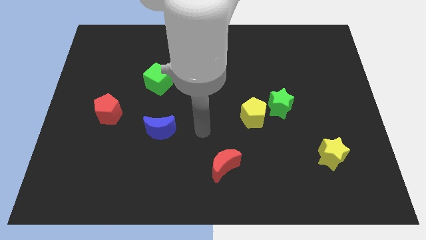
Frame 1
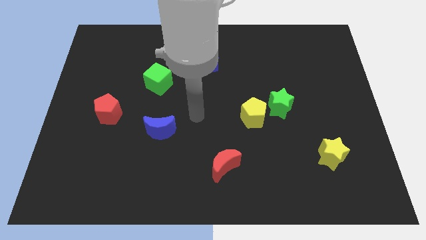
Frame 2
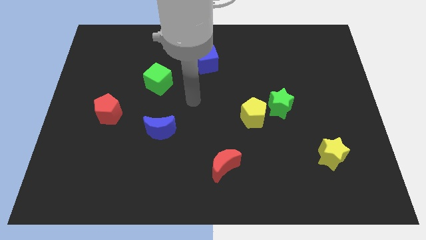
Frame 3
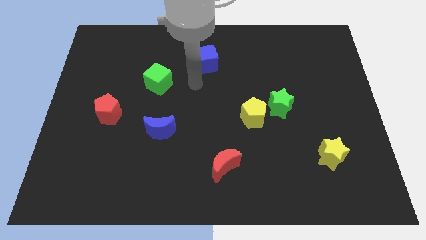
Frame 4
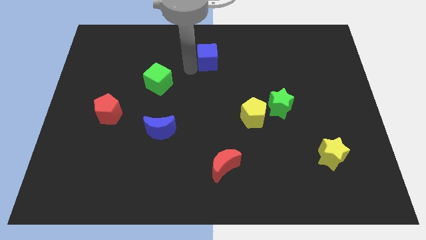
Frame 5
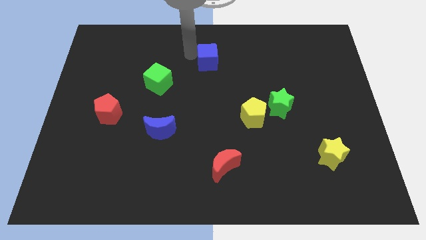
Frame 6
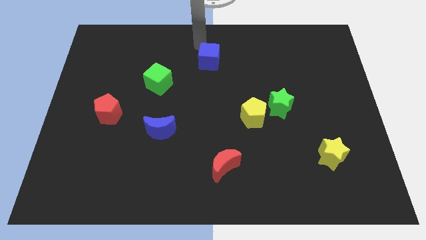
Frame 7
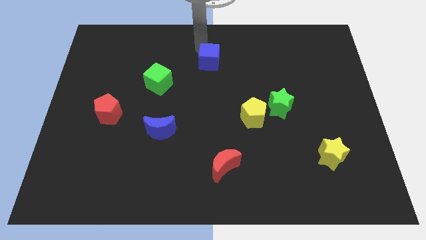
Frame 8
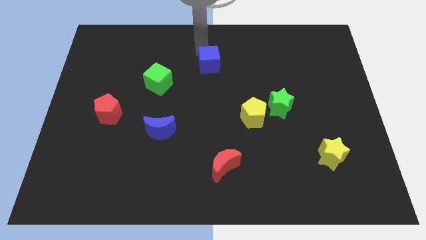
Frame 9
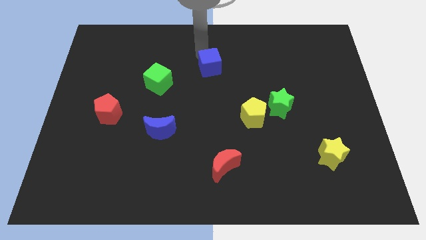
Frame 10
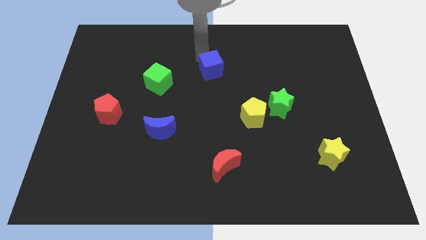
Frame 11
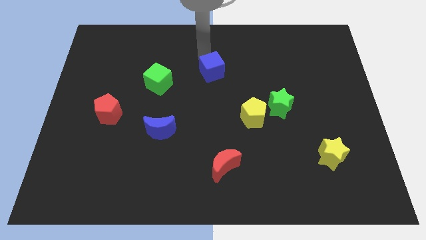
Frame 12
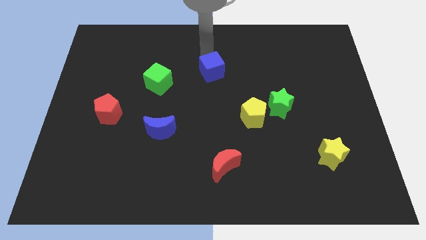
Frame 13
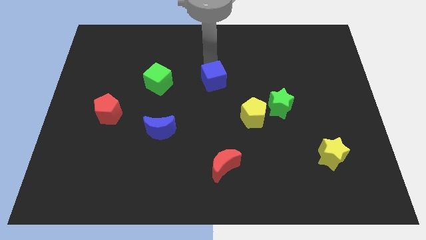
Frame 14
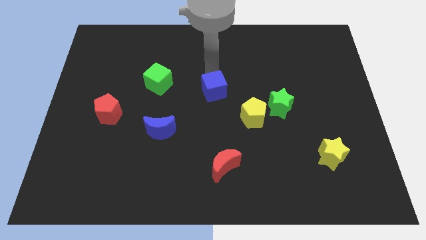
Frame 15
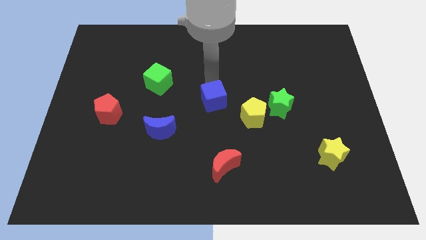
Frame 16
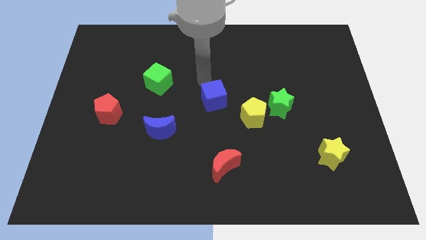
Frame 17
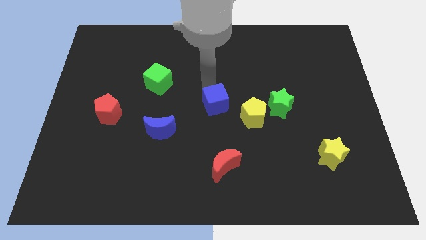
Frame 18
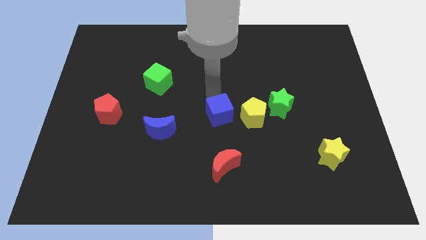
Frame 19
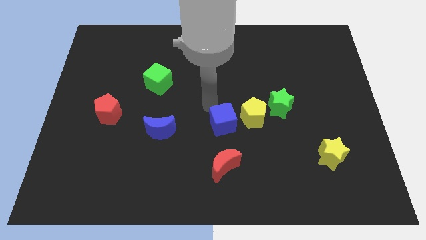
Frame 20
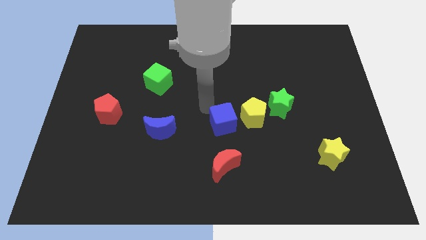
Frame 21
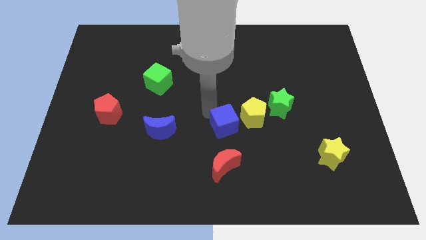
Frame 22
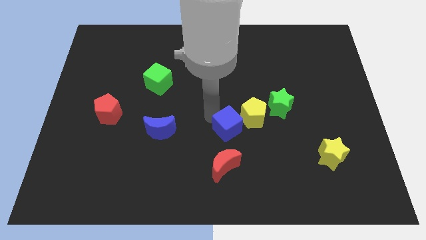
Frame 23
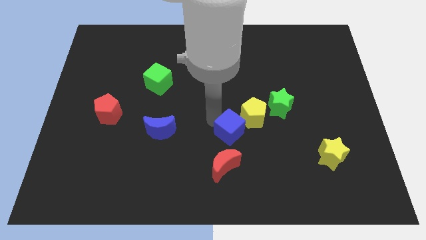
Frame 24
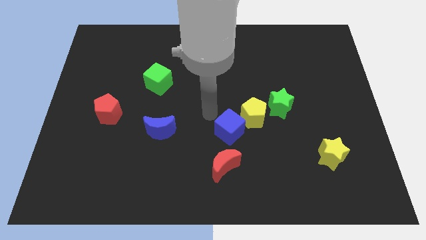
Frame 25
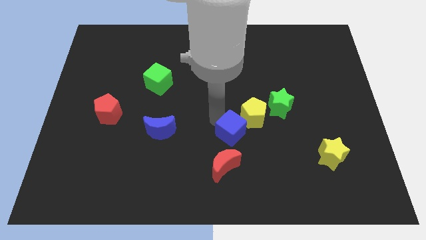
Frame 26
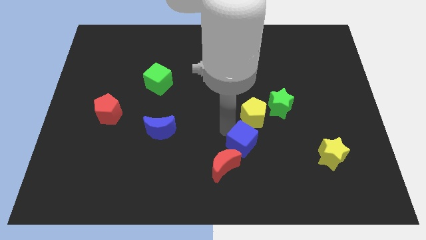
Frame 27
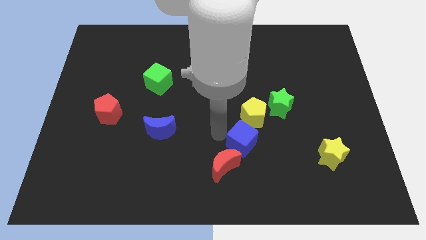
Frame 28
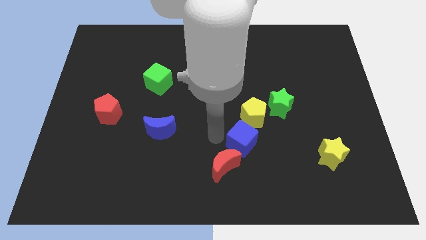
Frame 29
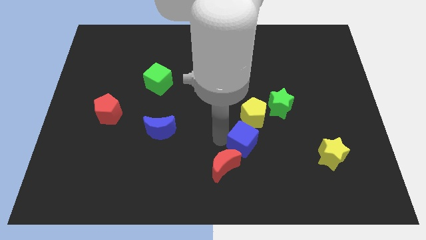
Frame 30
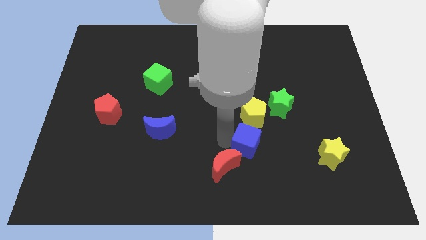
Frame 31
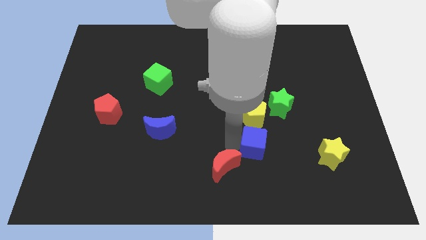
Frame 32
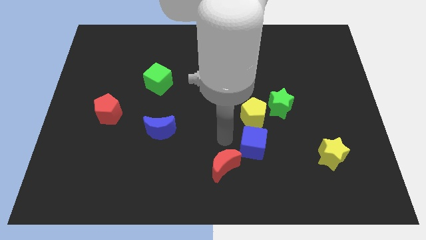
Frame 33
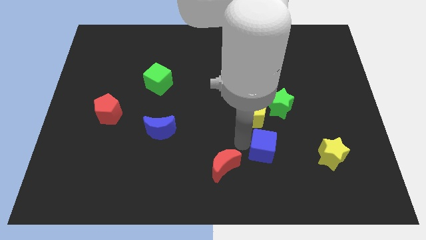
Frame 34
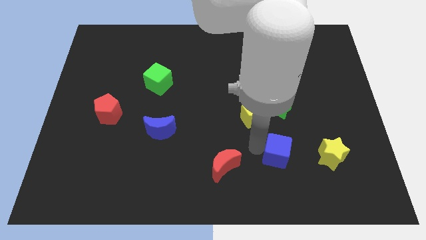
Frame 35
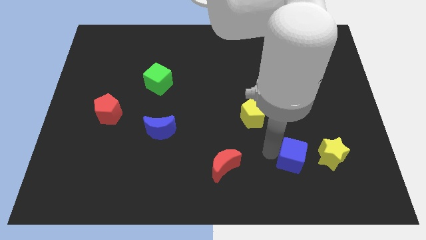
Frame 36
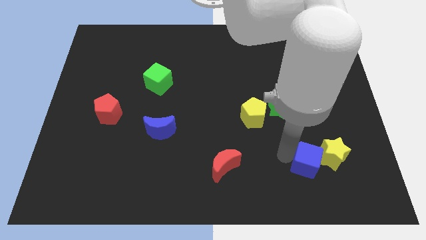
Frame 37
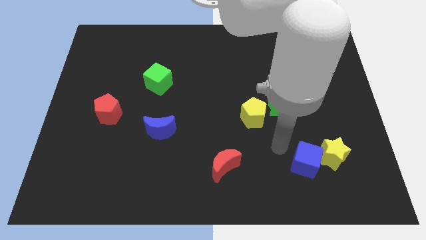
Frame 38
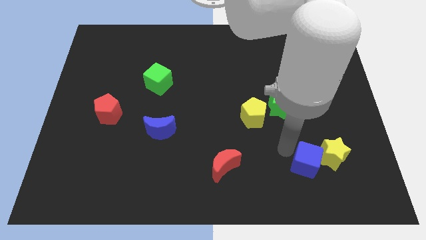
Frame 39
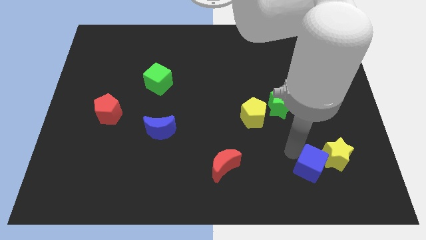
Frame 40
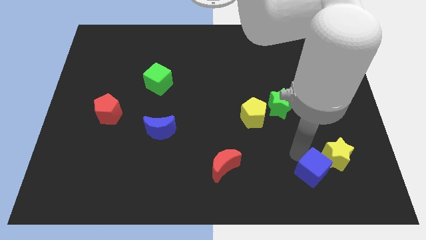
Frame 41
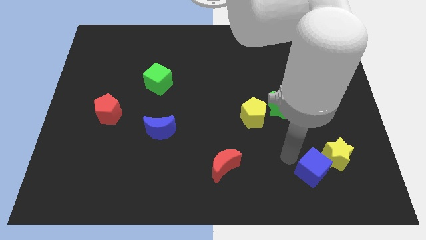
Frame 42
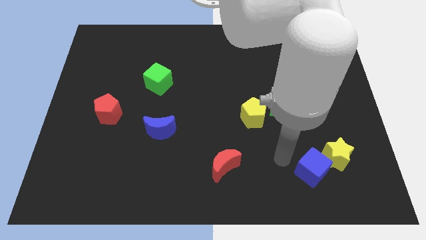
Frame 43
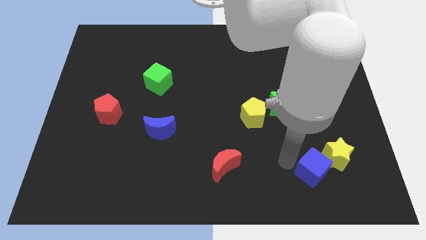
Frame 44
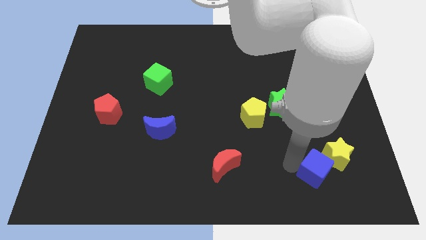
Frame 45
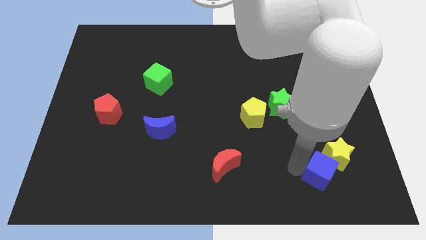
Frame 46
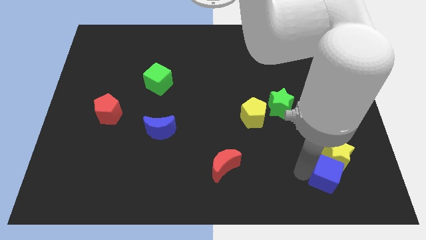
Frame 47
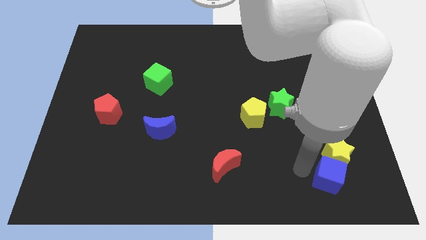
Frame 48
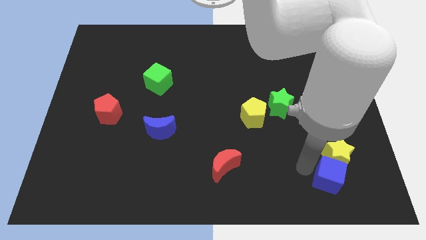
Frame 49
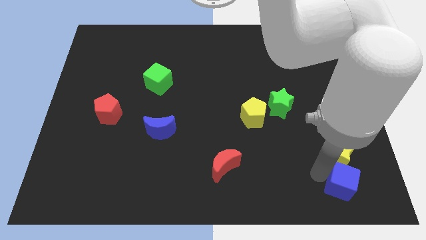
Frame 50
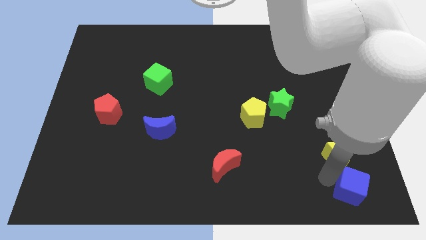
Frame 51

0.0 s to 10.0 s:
slide the blue cube to the lower right corner

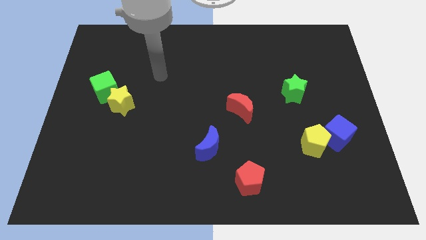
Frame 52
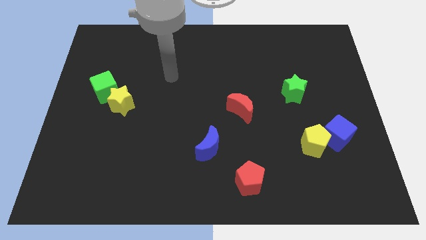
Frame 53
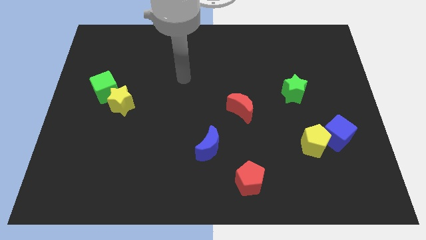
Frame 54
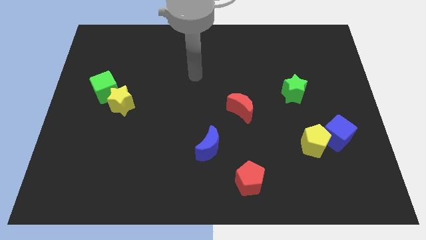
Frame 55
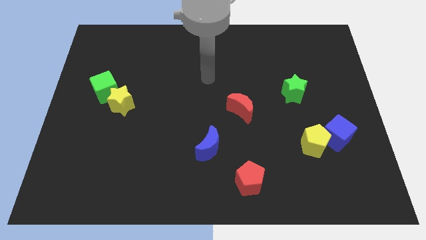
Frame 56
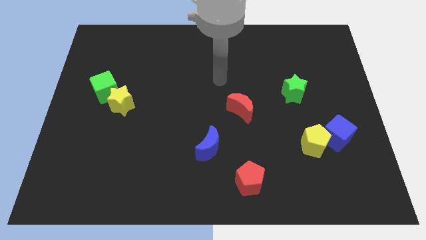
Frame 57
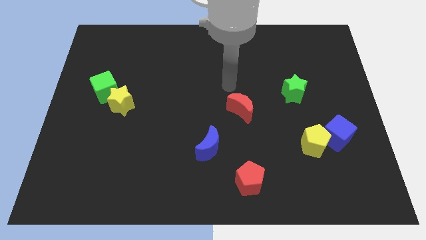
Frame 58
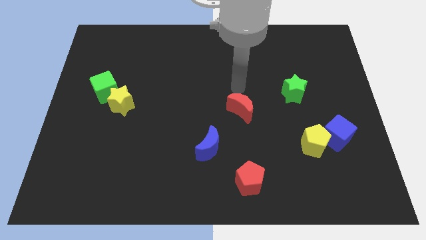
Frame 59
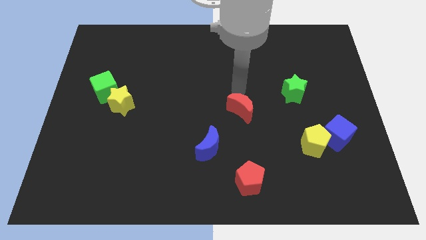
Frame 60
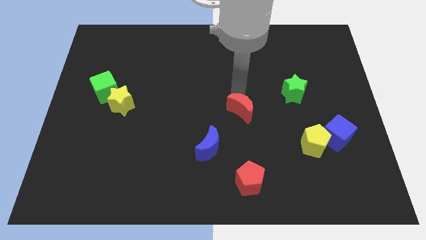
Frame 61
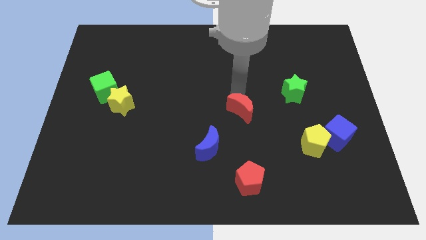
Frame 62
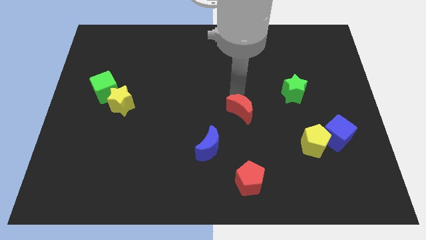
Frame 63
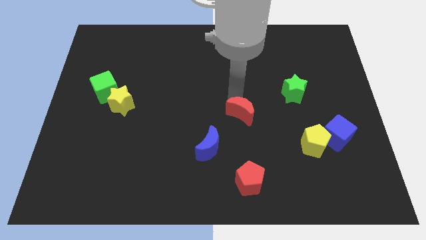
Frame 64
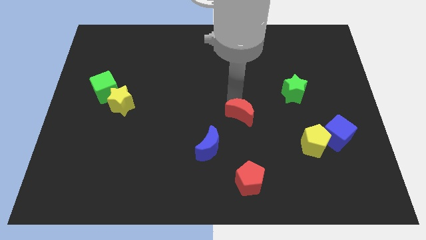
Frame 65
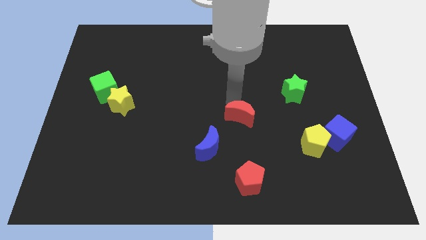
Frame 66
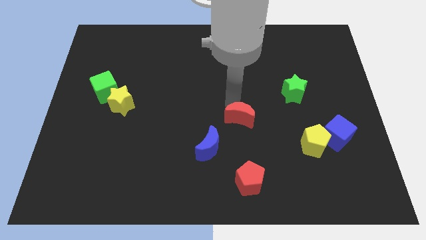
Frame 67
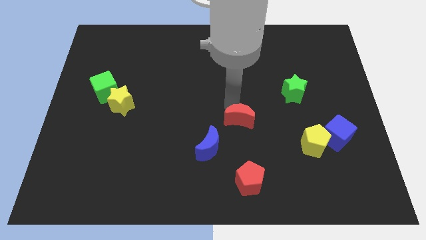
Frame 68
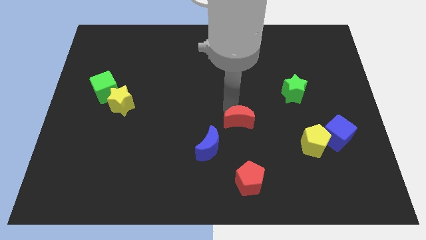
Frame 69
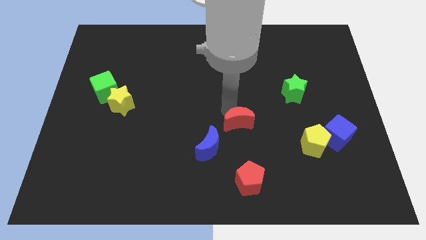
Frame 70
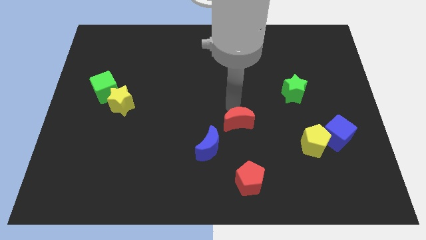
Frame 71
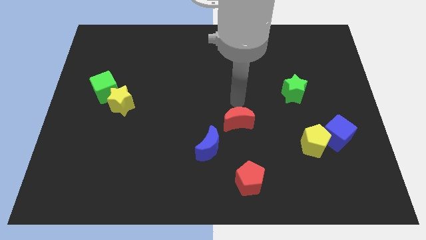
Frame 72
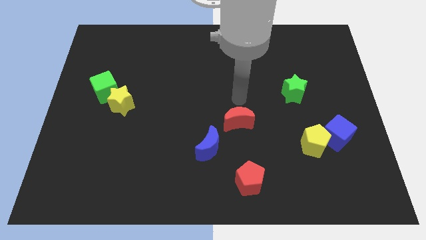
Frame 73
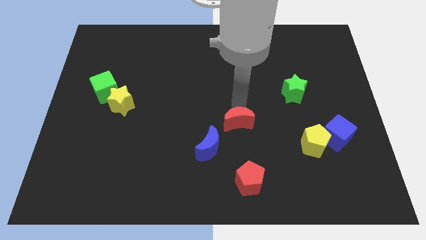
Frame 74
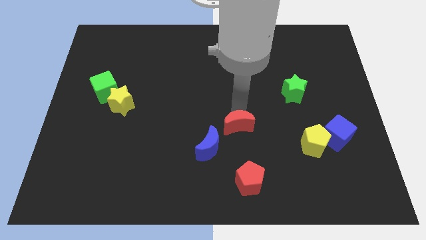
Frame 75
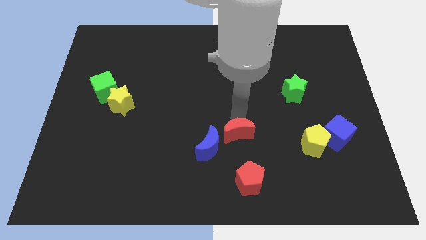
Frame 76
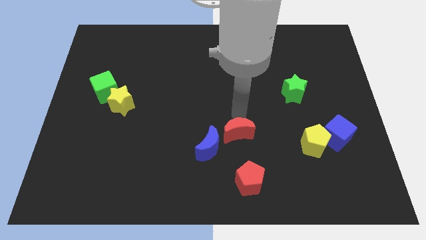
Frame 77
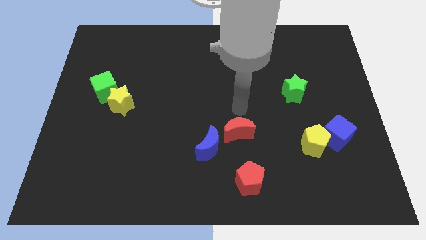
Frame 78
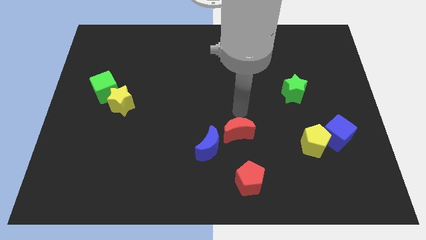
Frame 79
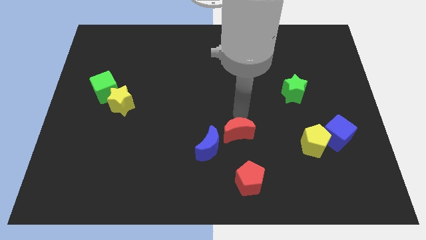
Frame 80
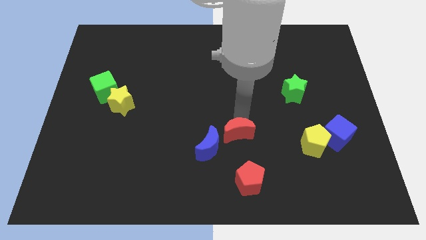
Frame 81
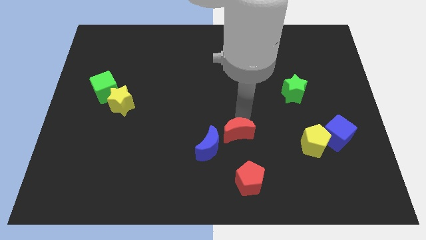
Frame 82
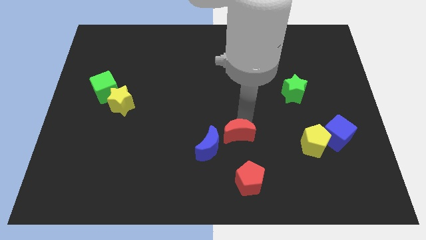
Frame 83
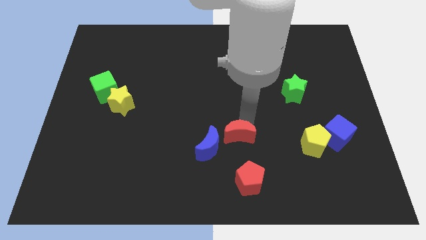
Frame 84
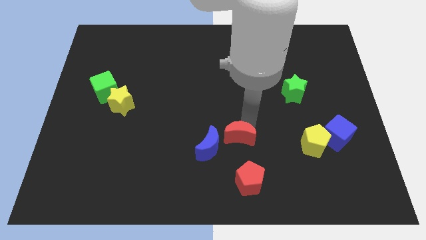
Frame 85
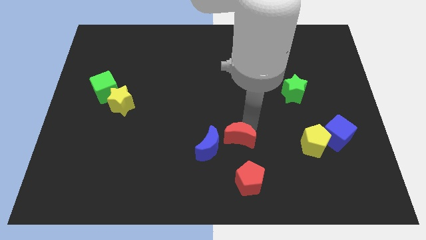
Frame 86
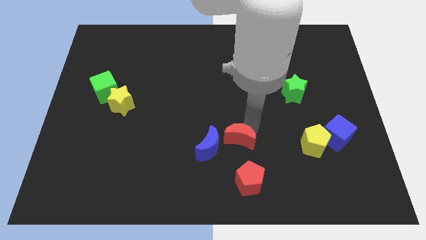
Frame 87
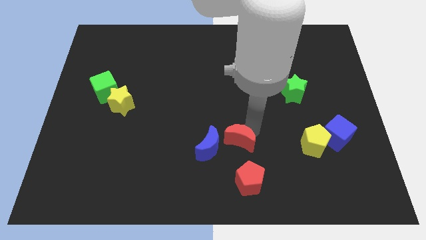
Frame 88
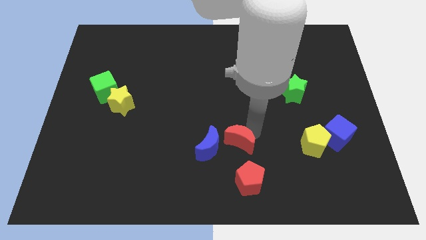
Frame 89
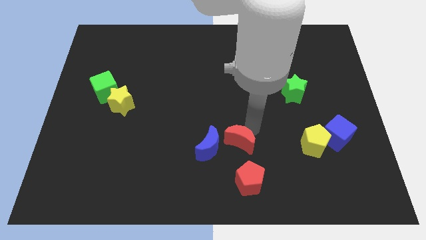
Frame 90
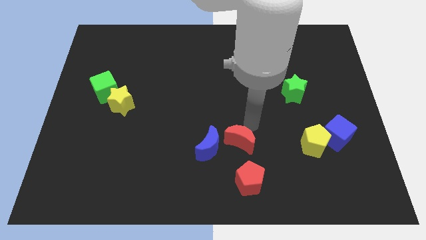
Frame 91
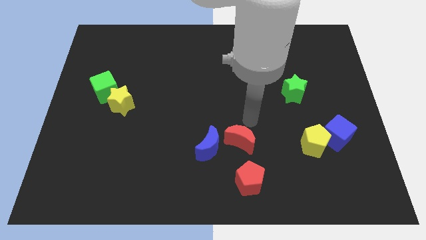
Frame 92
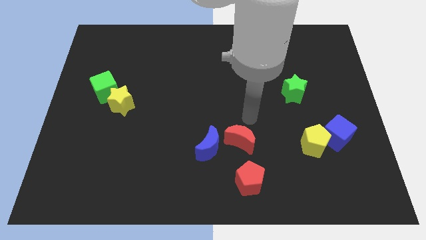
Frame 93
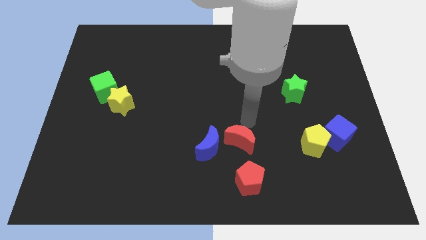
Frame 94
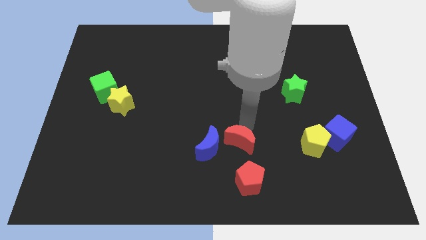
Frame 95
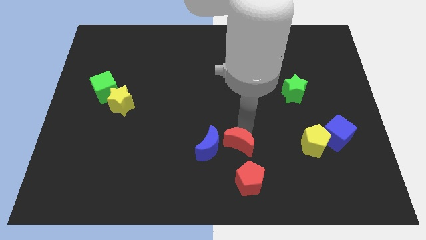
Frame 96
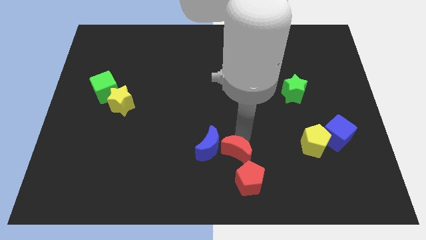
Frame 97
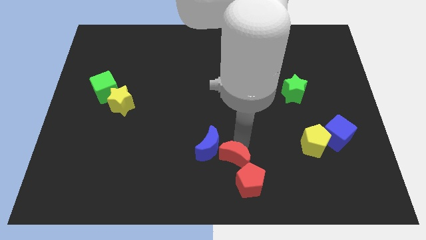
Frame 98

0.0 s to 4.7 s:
push the red moon to the bottom side
